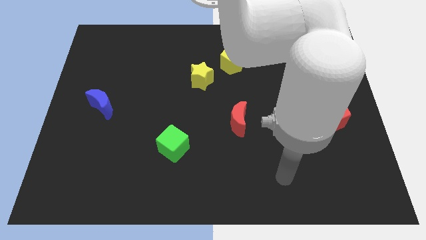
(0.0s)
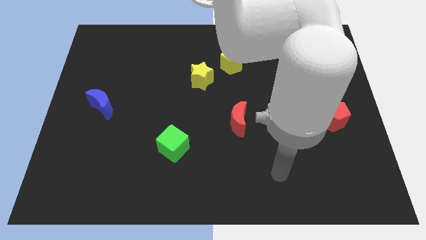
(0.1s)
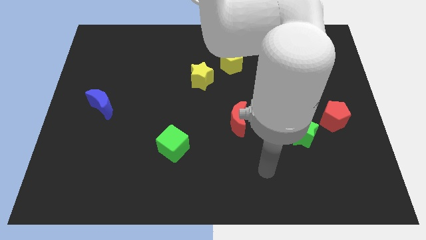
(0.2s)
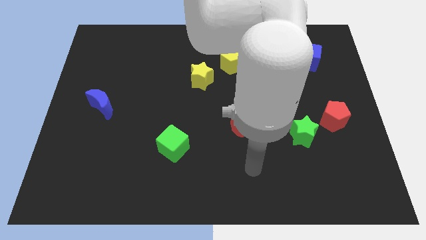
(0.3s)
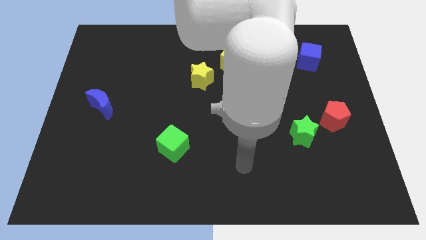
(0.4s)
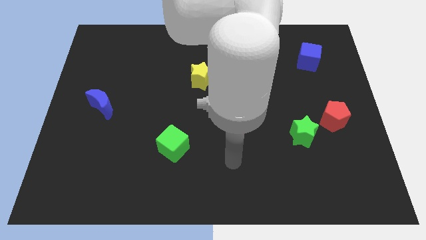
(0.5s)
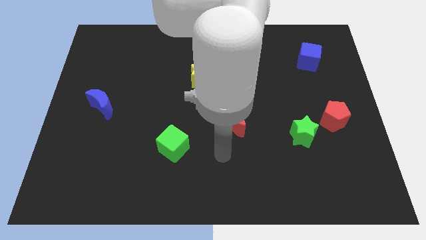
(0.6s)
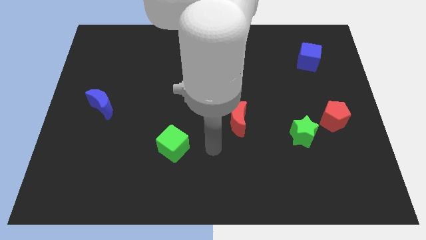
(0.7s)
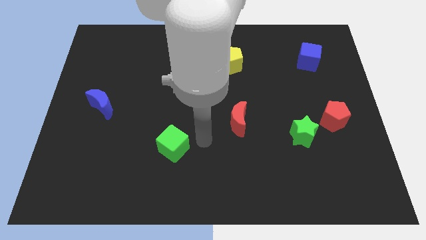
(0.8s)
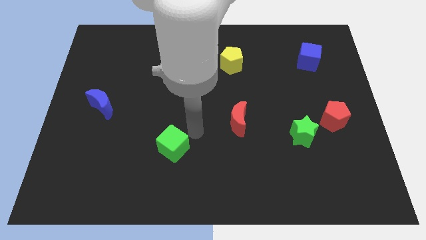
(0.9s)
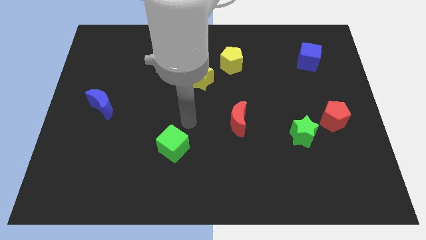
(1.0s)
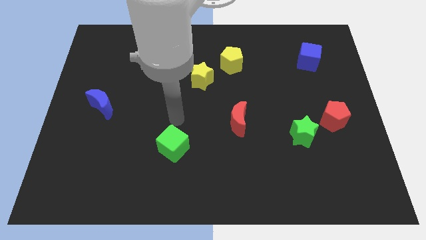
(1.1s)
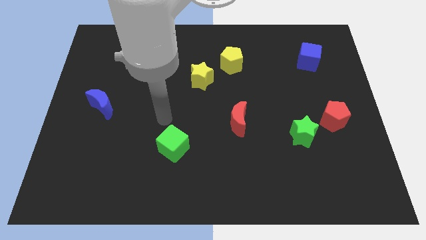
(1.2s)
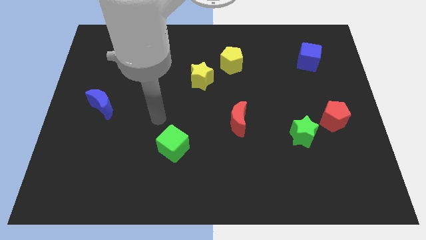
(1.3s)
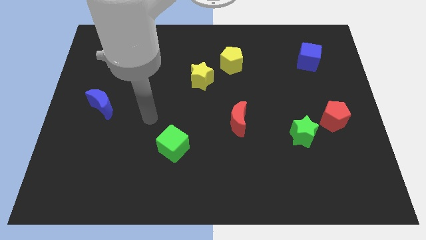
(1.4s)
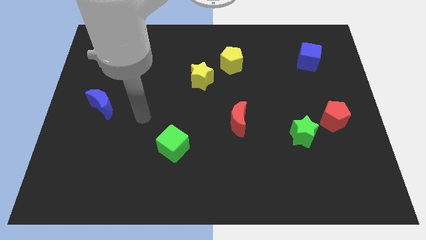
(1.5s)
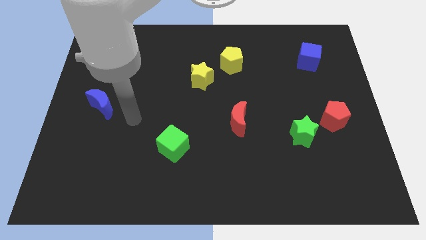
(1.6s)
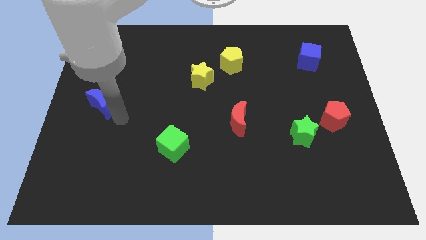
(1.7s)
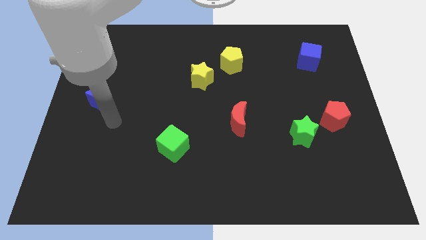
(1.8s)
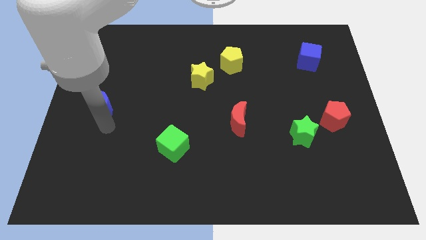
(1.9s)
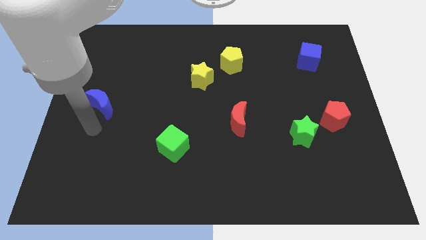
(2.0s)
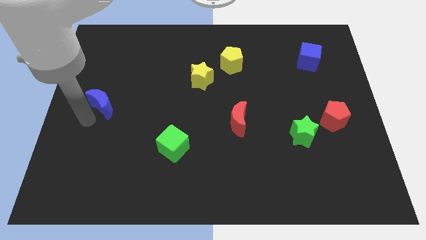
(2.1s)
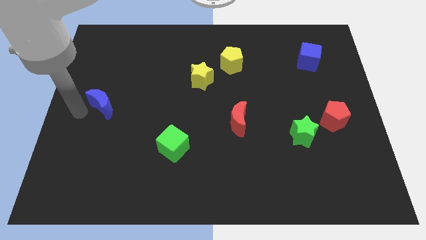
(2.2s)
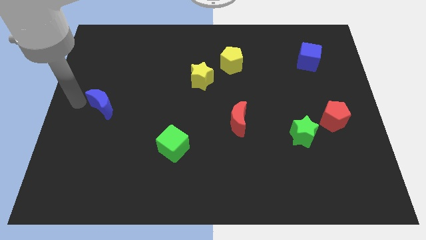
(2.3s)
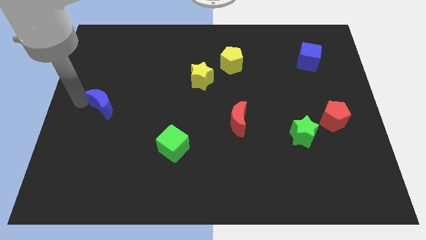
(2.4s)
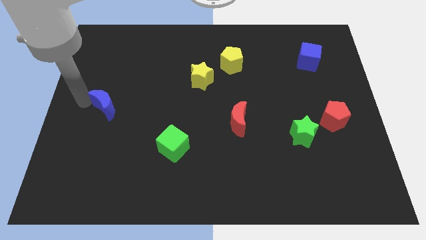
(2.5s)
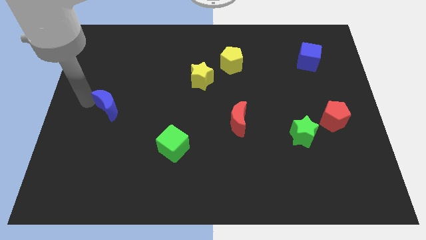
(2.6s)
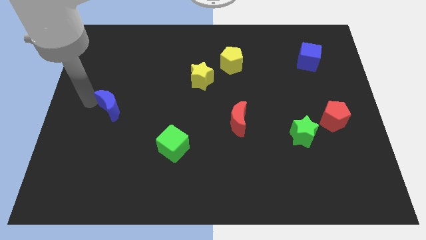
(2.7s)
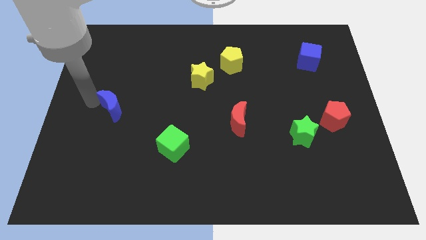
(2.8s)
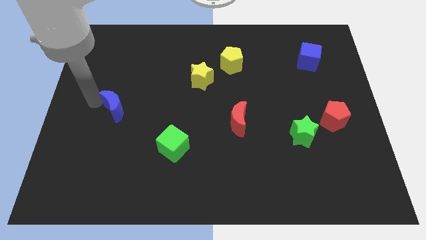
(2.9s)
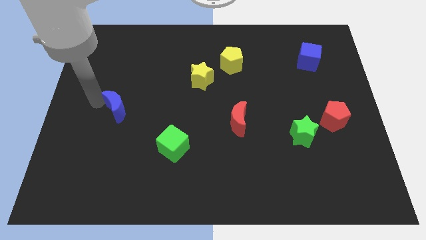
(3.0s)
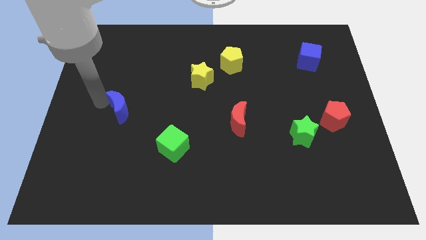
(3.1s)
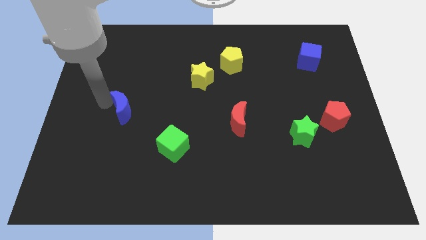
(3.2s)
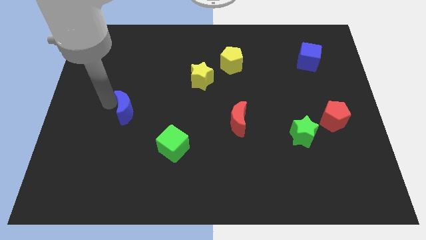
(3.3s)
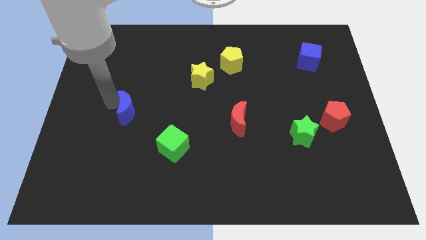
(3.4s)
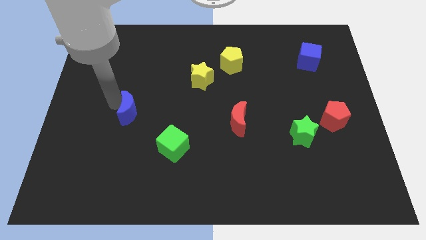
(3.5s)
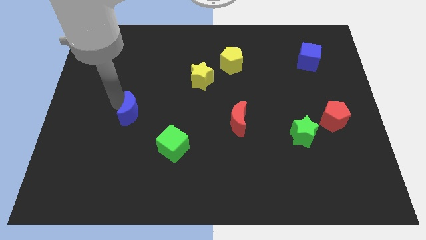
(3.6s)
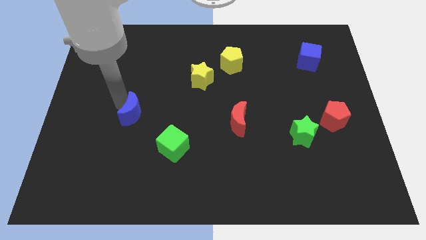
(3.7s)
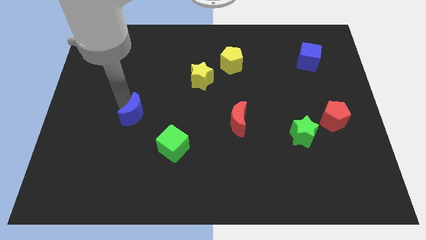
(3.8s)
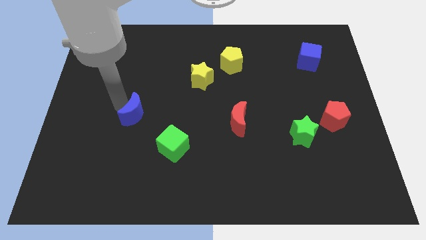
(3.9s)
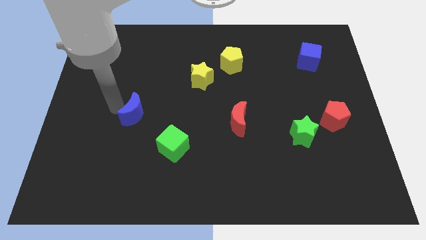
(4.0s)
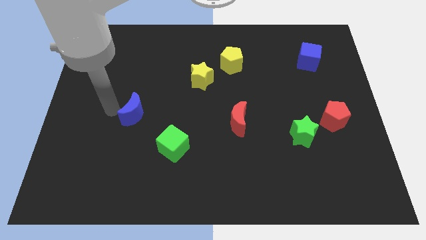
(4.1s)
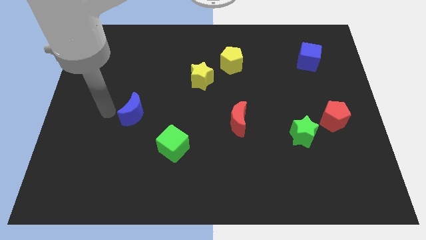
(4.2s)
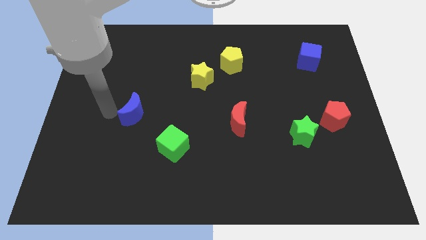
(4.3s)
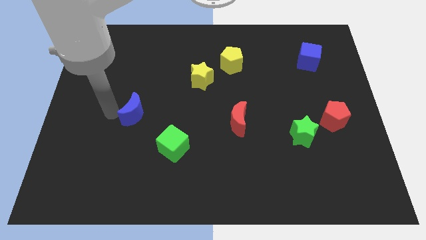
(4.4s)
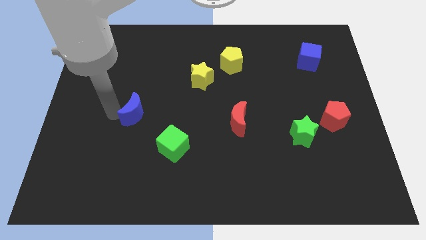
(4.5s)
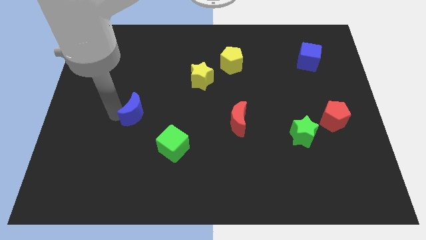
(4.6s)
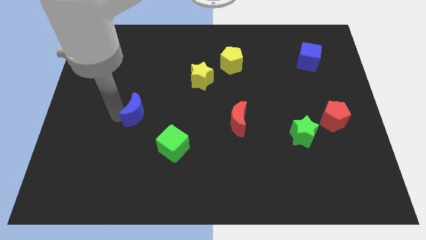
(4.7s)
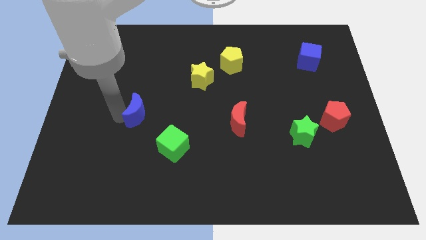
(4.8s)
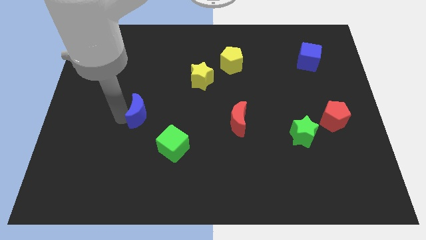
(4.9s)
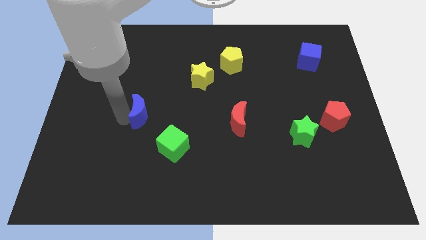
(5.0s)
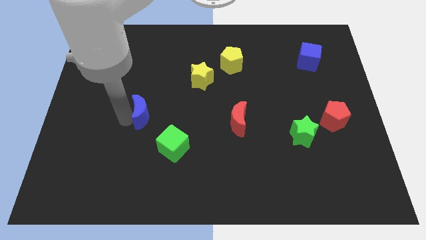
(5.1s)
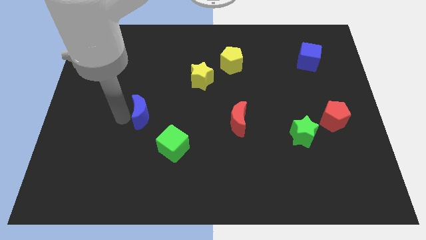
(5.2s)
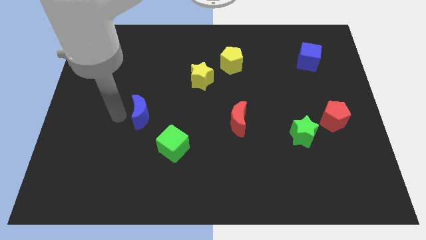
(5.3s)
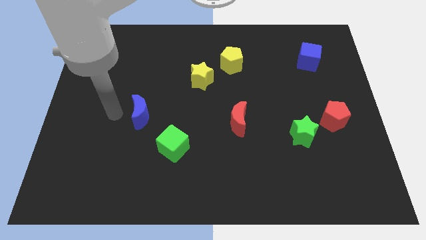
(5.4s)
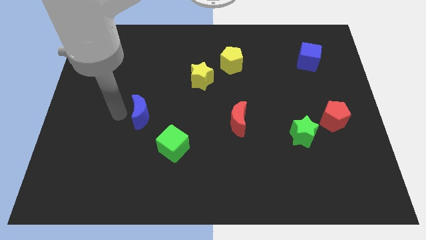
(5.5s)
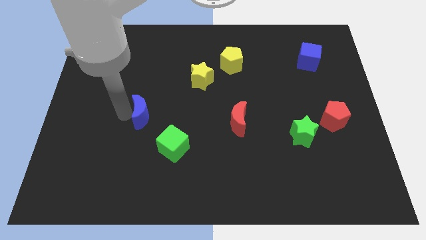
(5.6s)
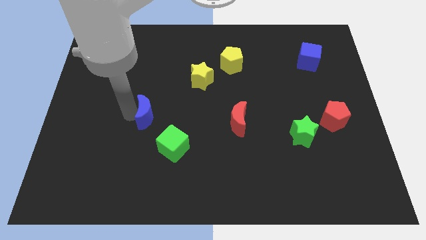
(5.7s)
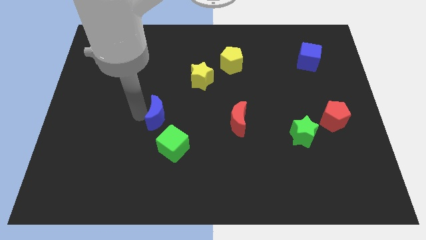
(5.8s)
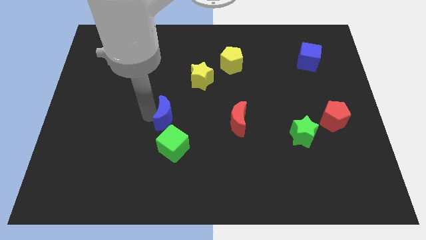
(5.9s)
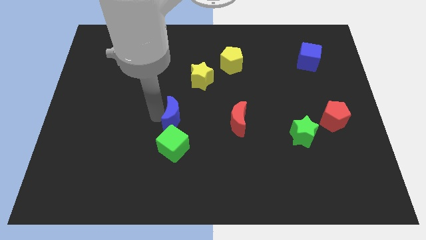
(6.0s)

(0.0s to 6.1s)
push the blue moon just left of the red moon
